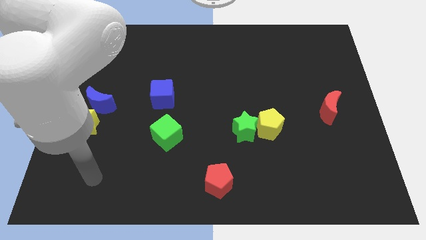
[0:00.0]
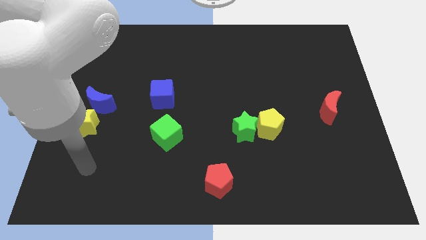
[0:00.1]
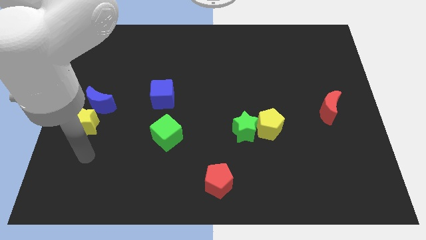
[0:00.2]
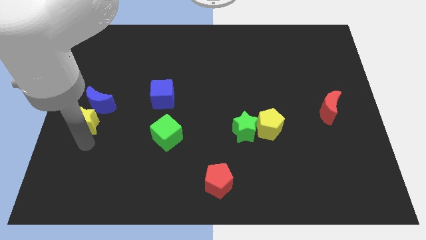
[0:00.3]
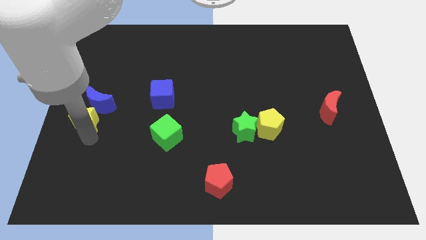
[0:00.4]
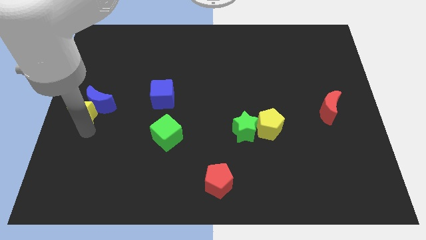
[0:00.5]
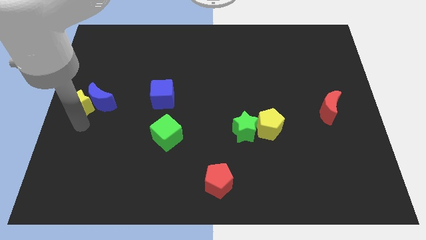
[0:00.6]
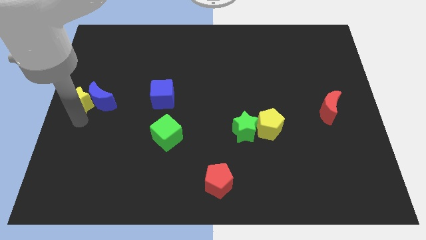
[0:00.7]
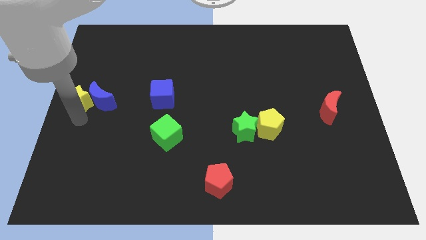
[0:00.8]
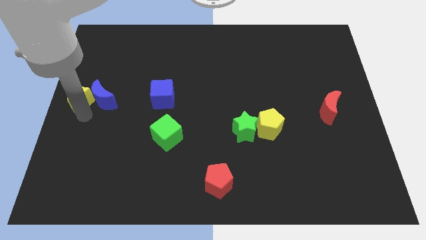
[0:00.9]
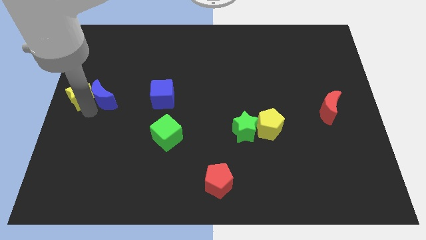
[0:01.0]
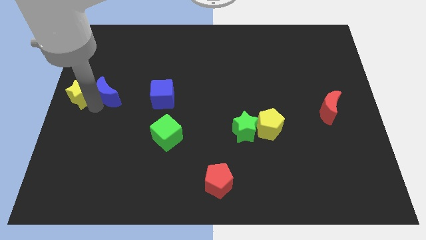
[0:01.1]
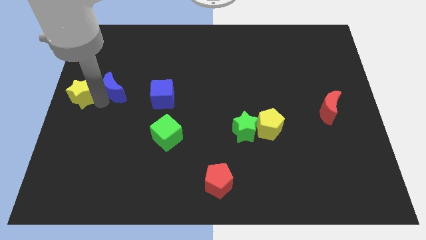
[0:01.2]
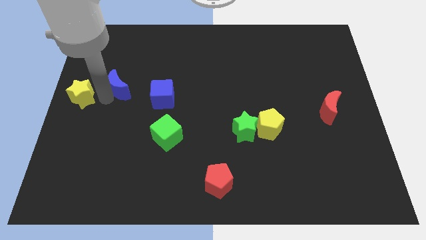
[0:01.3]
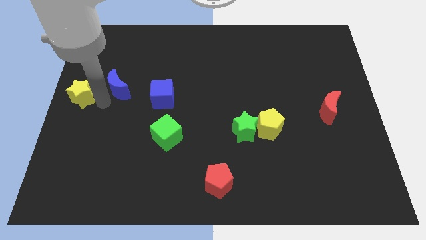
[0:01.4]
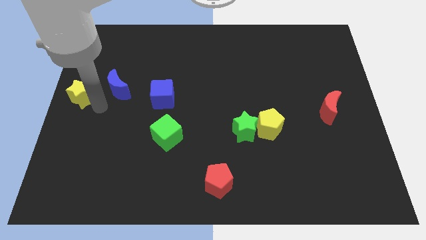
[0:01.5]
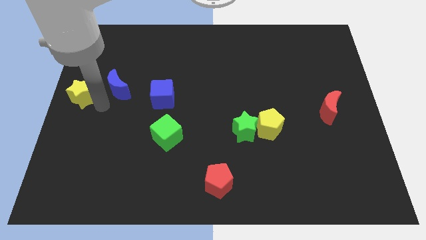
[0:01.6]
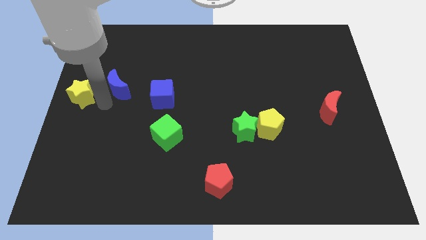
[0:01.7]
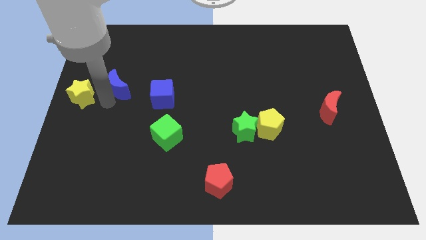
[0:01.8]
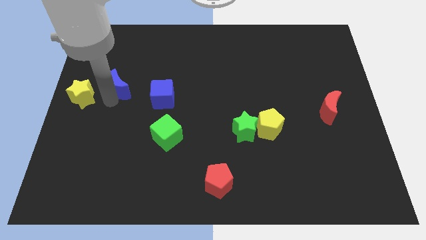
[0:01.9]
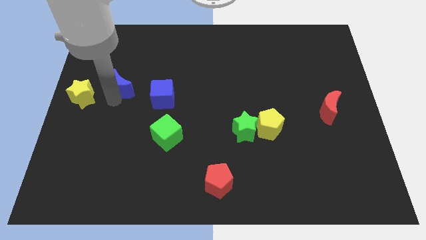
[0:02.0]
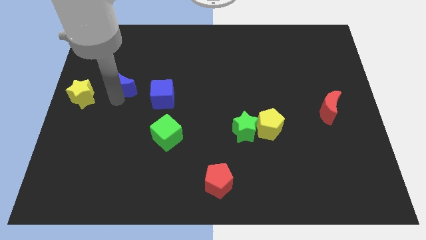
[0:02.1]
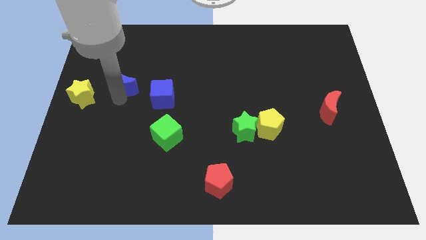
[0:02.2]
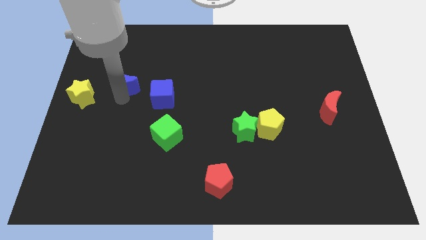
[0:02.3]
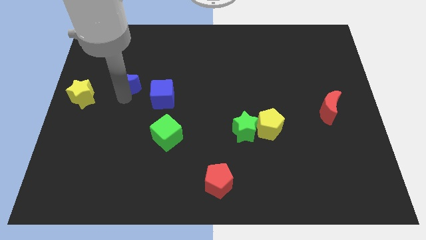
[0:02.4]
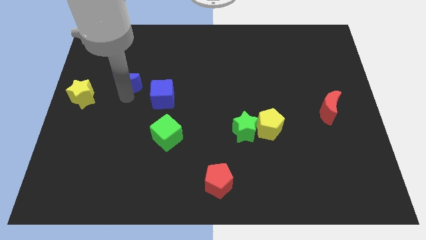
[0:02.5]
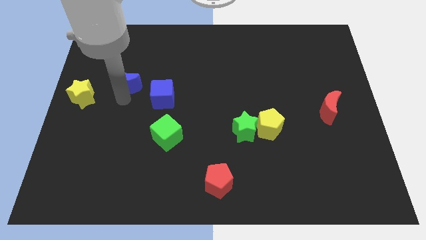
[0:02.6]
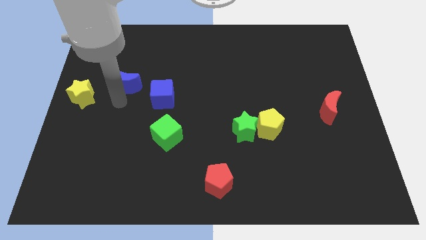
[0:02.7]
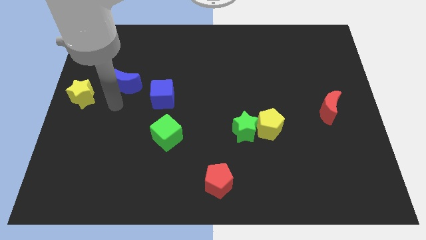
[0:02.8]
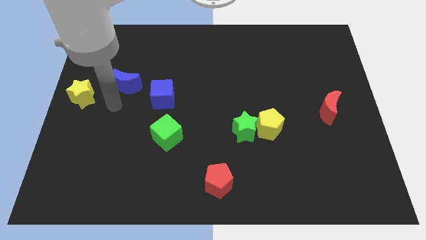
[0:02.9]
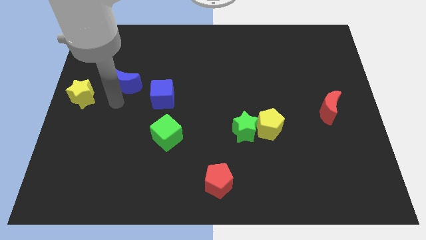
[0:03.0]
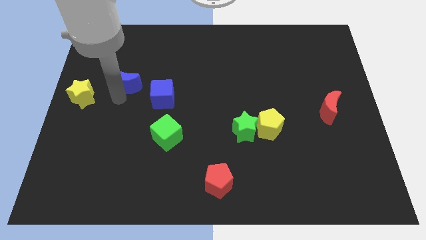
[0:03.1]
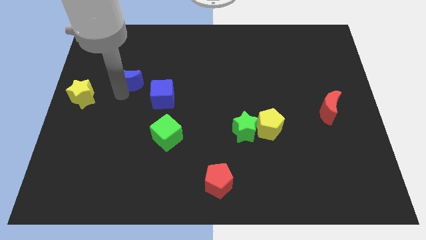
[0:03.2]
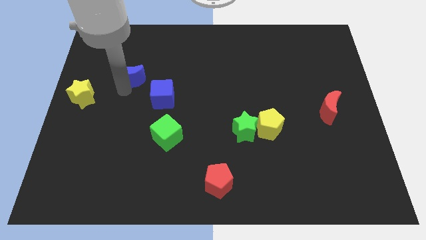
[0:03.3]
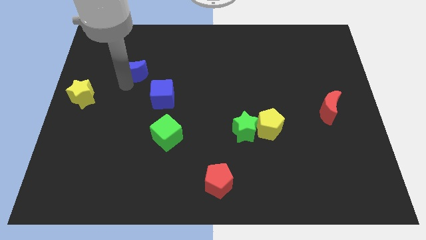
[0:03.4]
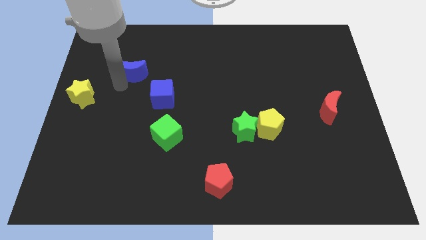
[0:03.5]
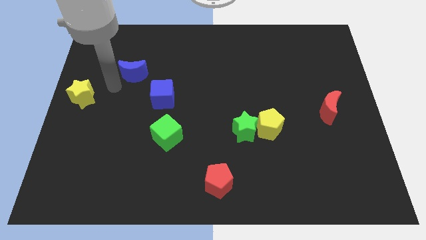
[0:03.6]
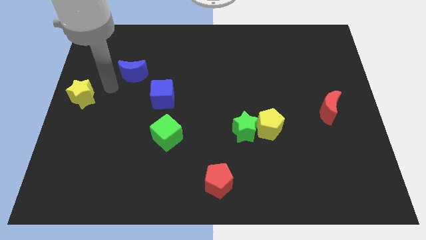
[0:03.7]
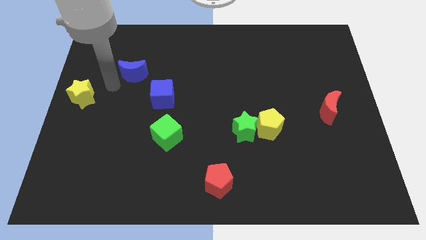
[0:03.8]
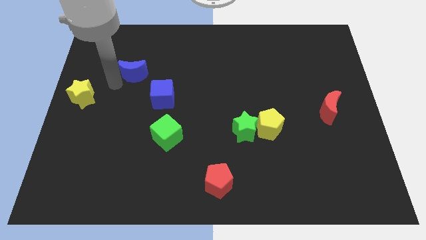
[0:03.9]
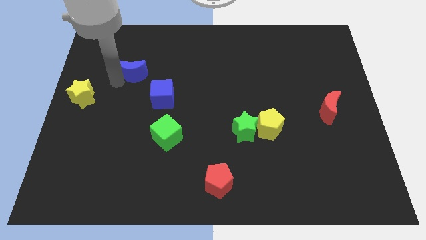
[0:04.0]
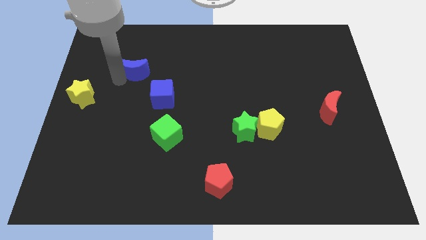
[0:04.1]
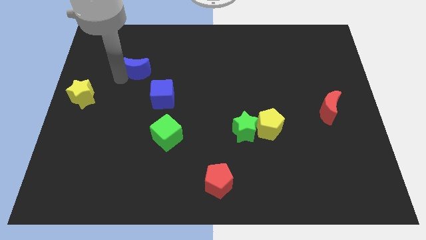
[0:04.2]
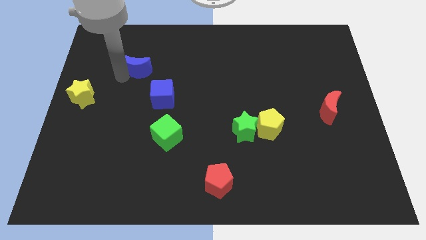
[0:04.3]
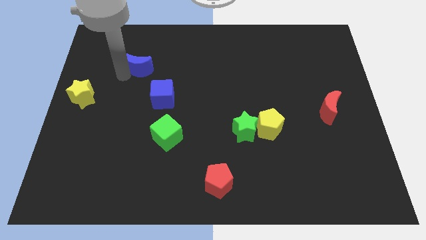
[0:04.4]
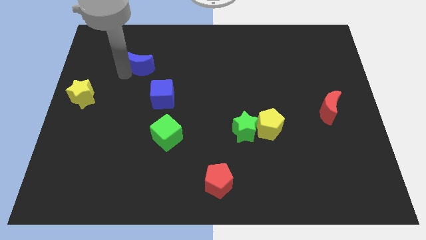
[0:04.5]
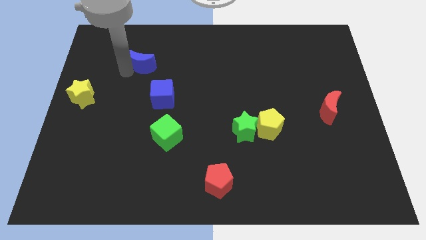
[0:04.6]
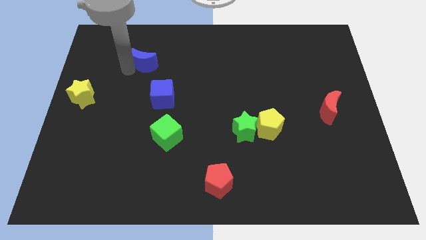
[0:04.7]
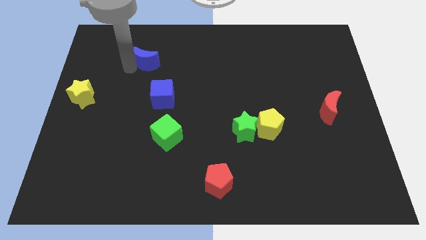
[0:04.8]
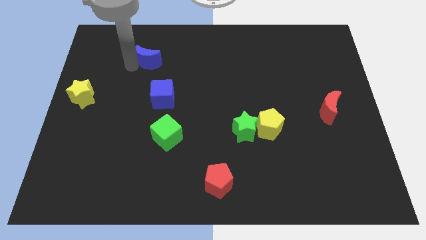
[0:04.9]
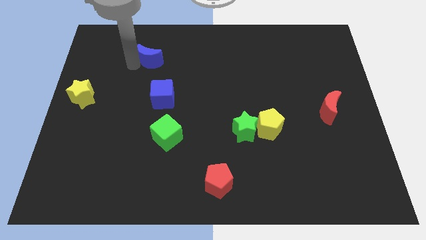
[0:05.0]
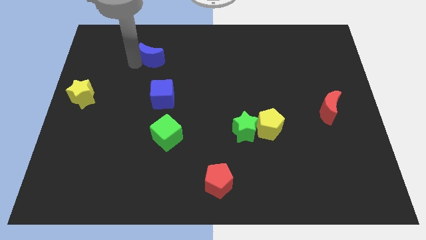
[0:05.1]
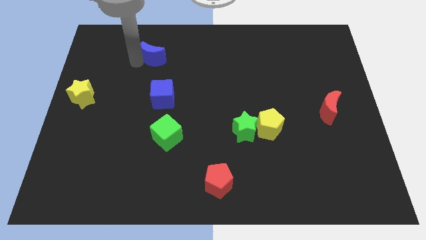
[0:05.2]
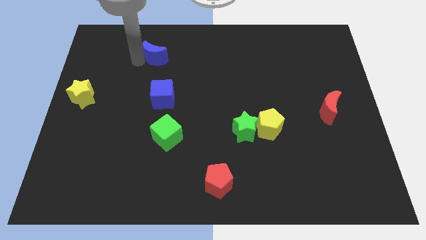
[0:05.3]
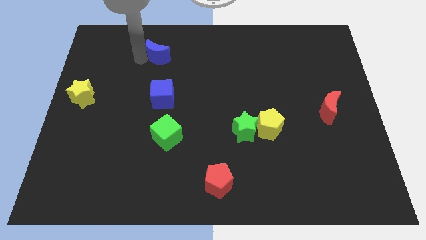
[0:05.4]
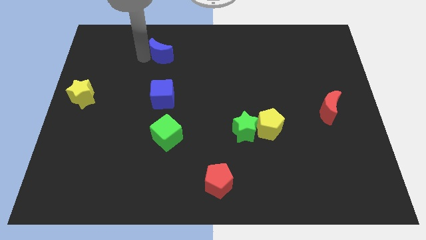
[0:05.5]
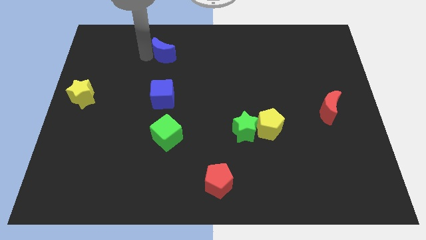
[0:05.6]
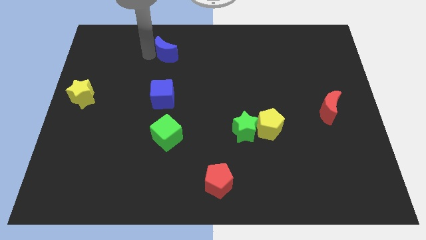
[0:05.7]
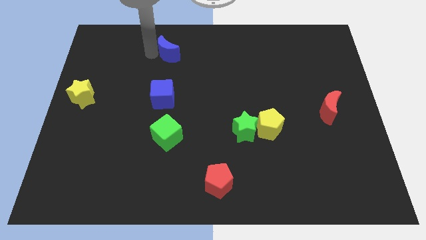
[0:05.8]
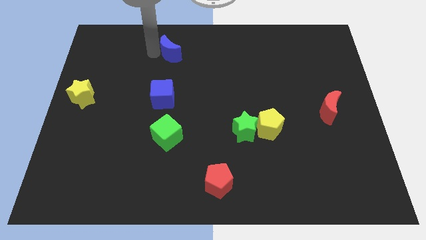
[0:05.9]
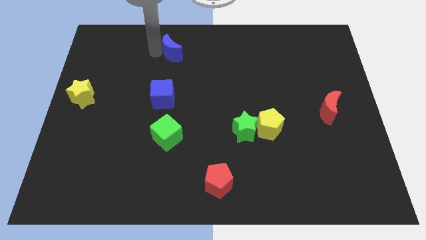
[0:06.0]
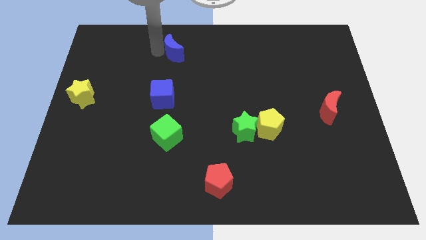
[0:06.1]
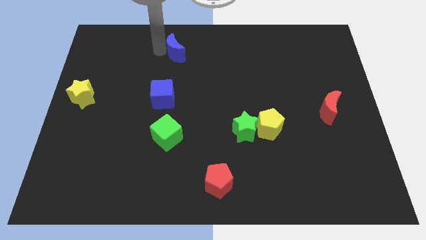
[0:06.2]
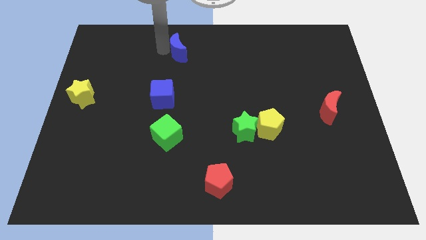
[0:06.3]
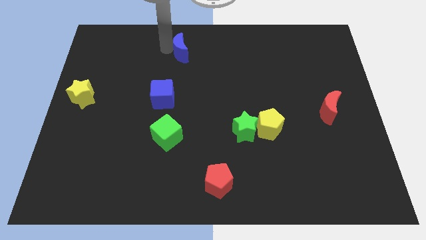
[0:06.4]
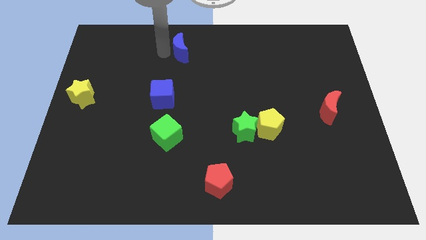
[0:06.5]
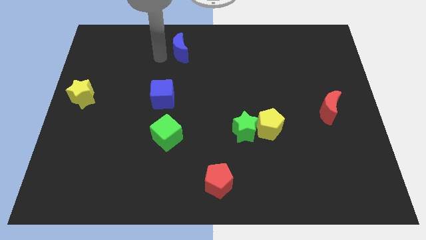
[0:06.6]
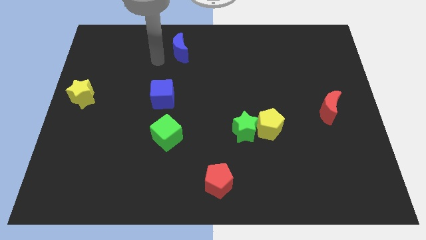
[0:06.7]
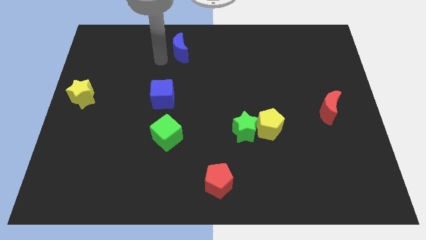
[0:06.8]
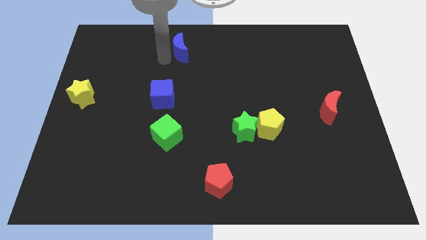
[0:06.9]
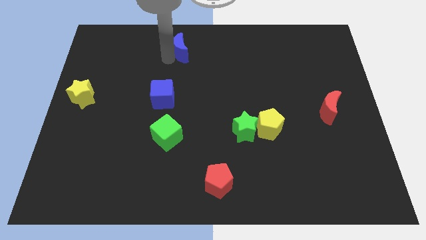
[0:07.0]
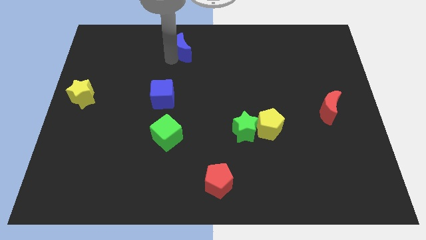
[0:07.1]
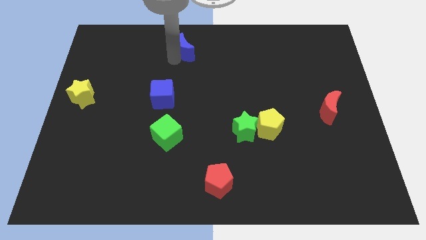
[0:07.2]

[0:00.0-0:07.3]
slide the blue moon to the top
